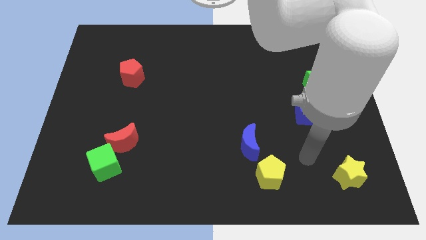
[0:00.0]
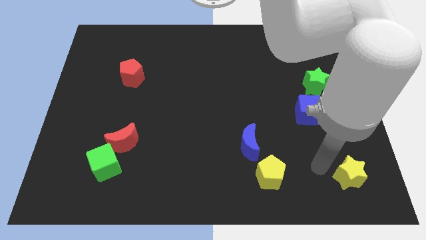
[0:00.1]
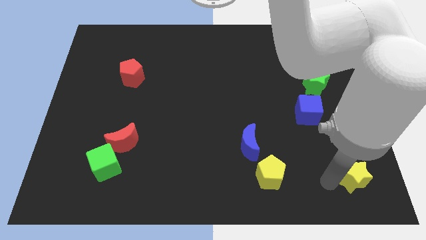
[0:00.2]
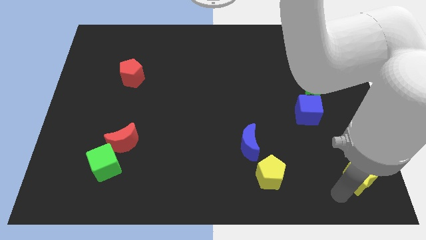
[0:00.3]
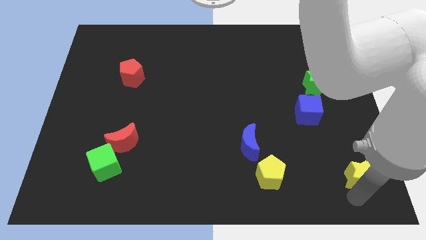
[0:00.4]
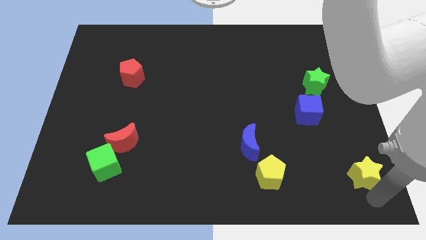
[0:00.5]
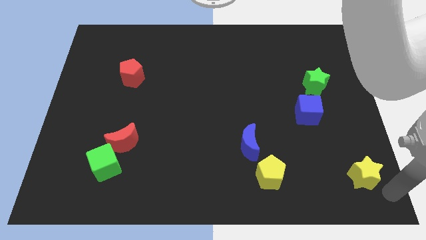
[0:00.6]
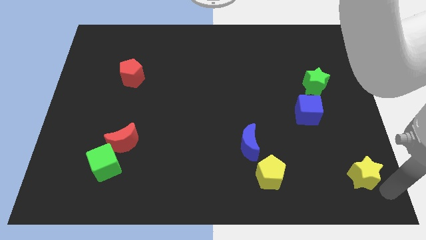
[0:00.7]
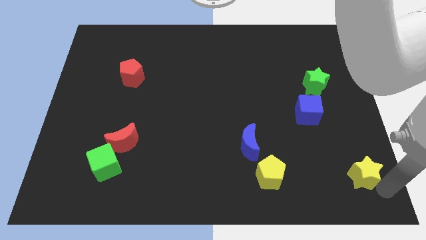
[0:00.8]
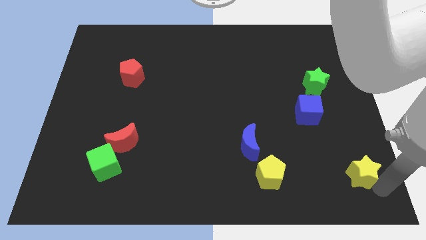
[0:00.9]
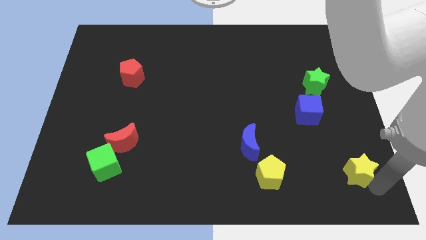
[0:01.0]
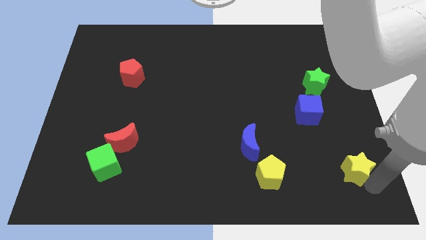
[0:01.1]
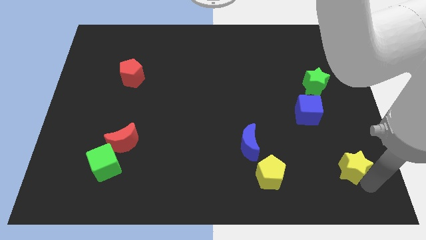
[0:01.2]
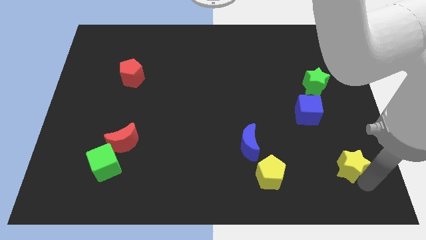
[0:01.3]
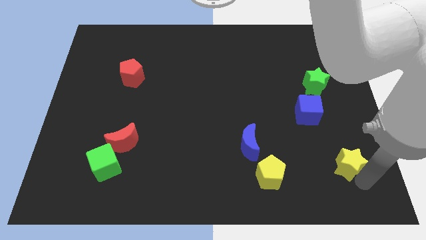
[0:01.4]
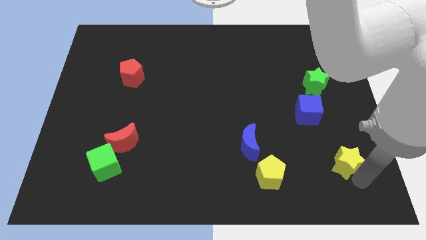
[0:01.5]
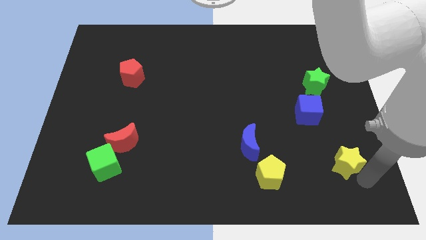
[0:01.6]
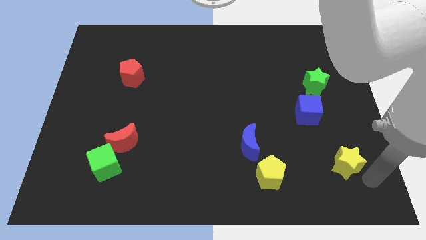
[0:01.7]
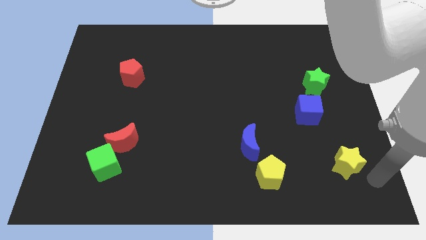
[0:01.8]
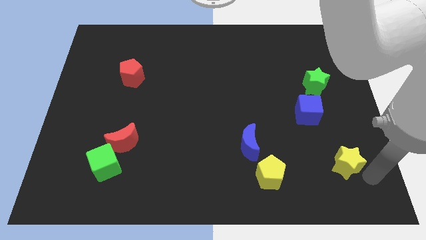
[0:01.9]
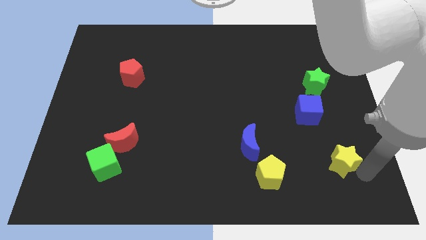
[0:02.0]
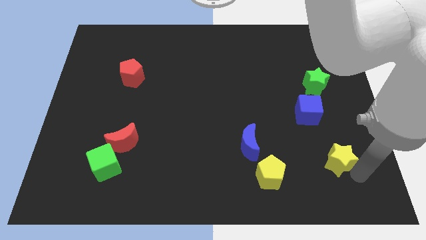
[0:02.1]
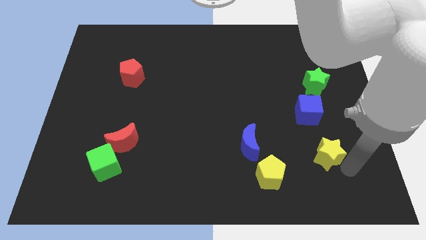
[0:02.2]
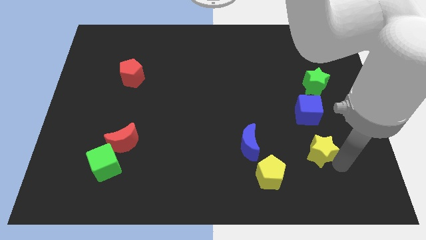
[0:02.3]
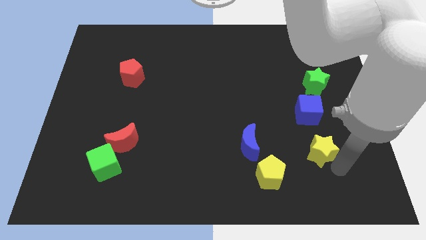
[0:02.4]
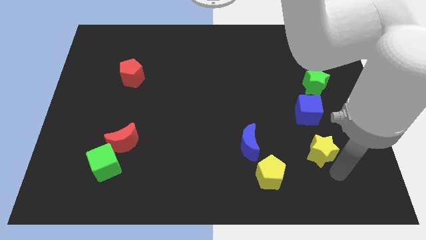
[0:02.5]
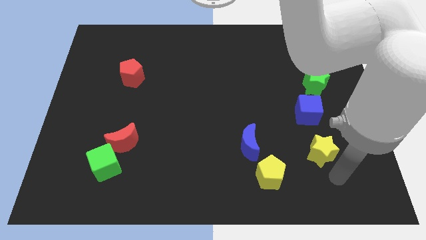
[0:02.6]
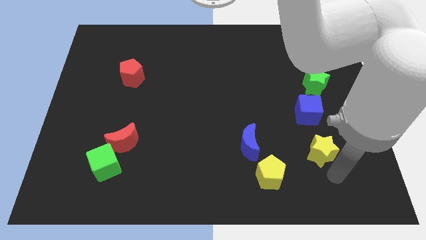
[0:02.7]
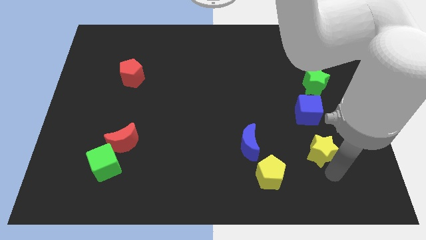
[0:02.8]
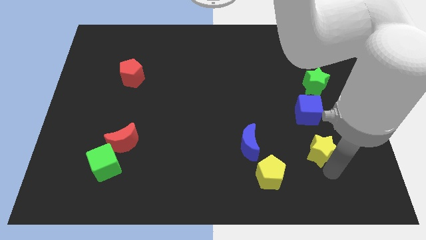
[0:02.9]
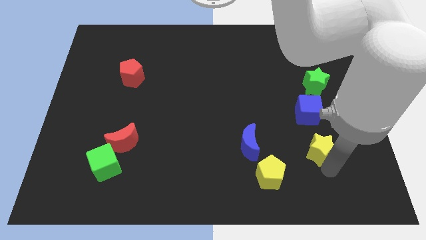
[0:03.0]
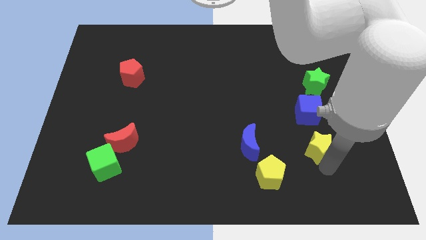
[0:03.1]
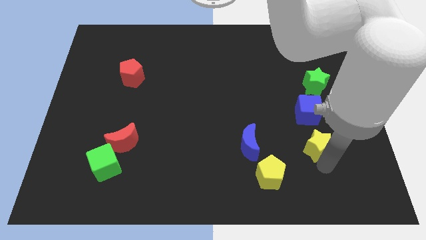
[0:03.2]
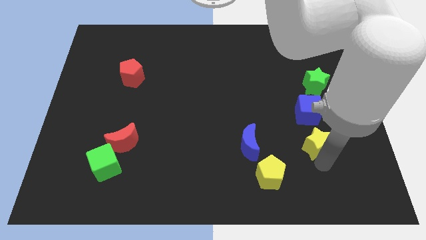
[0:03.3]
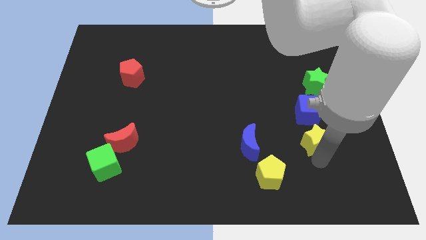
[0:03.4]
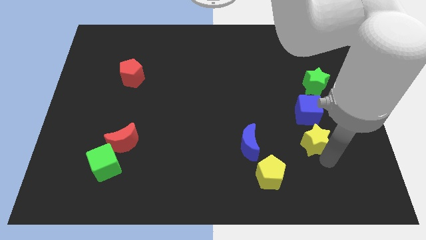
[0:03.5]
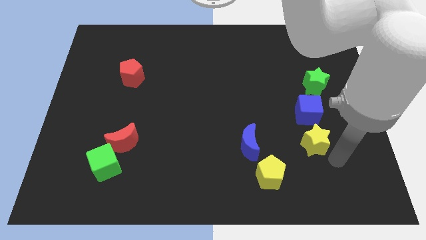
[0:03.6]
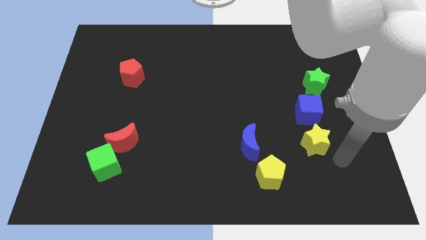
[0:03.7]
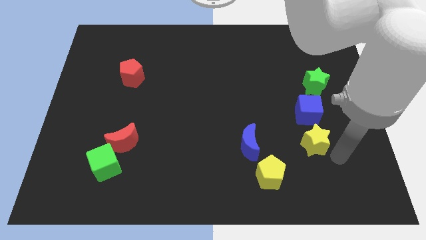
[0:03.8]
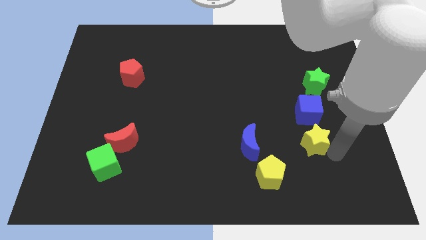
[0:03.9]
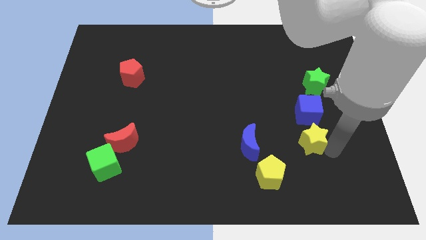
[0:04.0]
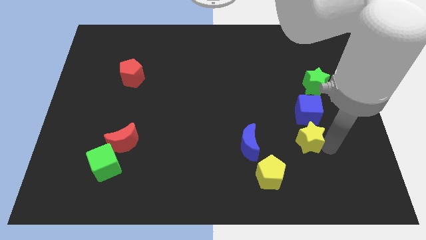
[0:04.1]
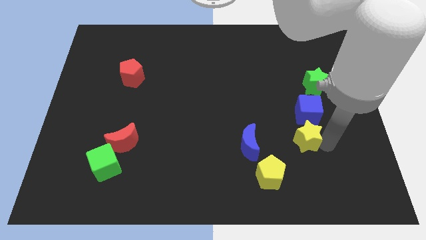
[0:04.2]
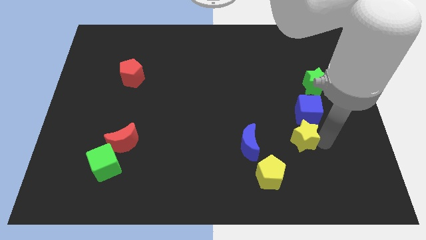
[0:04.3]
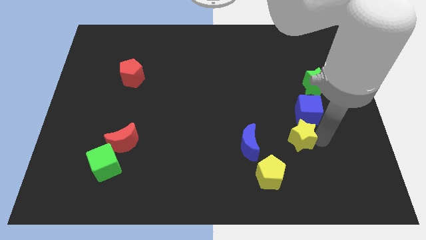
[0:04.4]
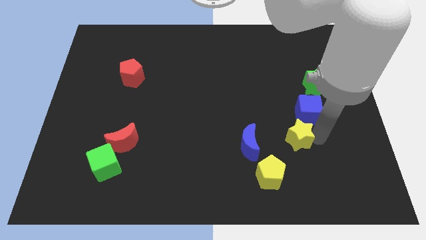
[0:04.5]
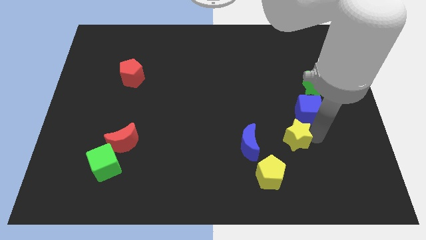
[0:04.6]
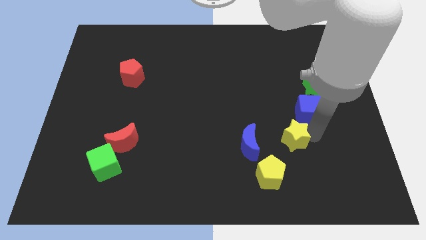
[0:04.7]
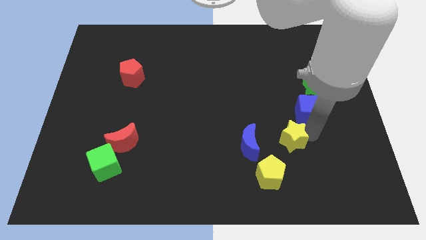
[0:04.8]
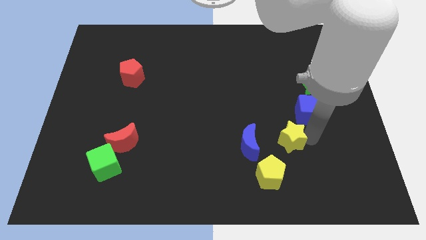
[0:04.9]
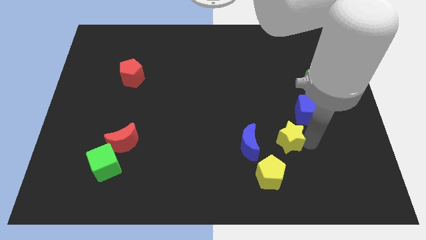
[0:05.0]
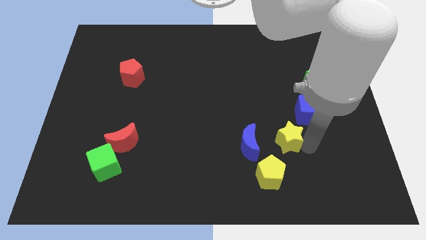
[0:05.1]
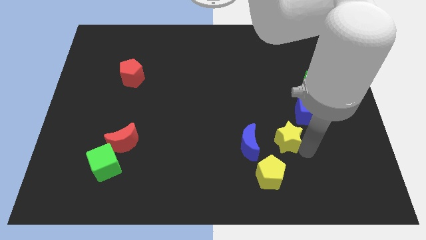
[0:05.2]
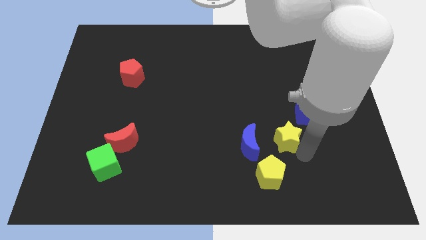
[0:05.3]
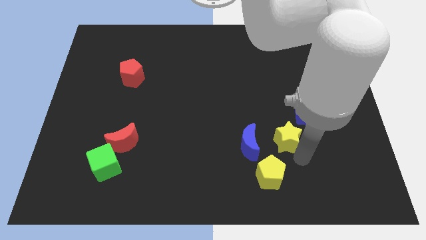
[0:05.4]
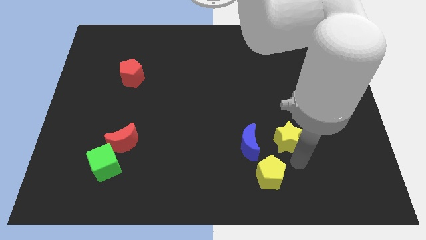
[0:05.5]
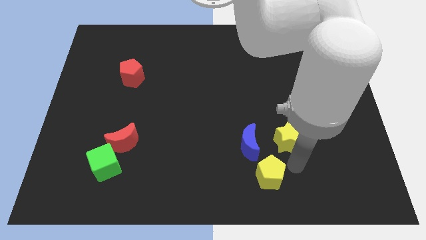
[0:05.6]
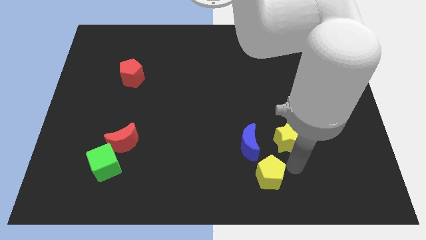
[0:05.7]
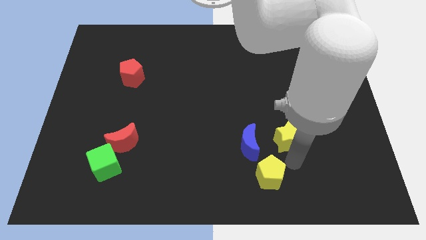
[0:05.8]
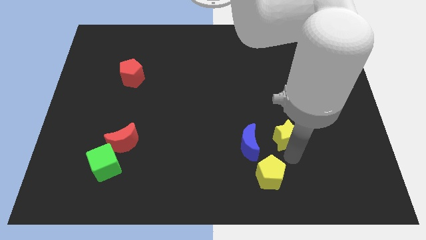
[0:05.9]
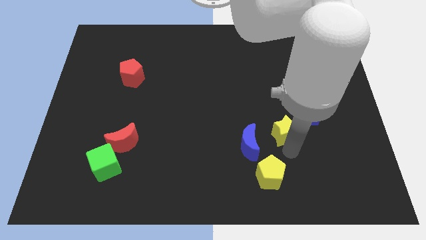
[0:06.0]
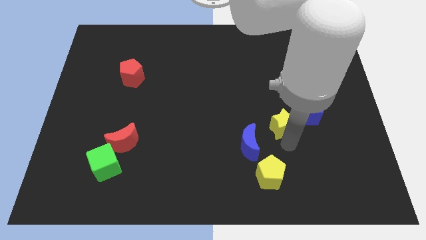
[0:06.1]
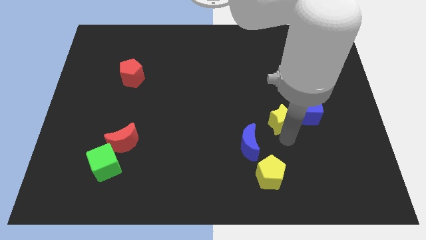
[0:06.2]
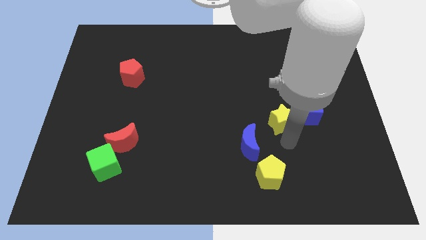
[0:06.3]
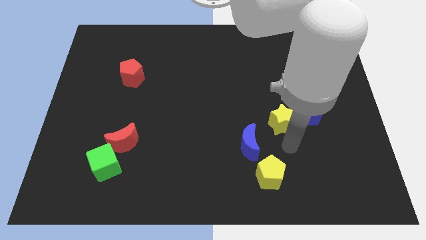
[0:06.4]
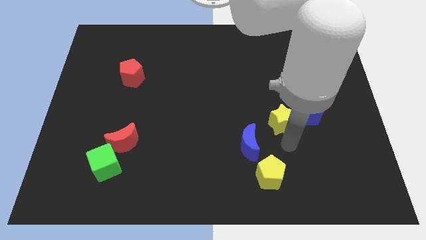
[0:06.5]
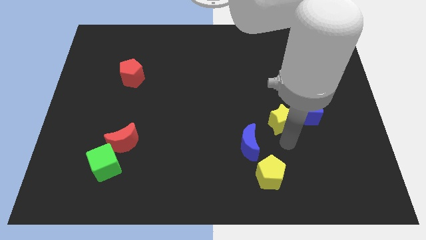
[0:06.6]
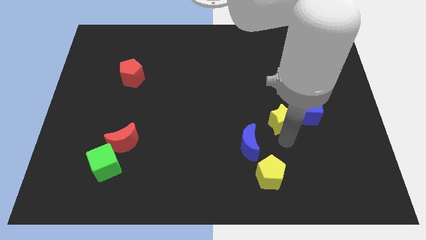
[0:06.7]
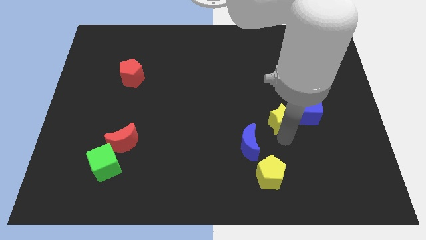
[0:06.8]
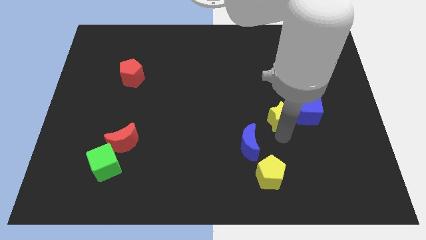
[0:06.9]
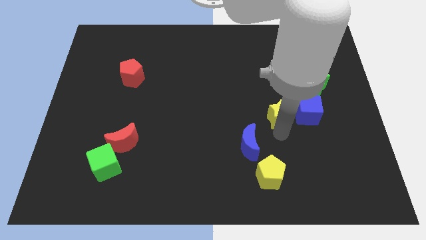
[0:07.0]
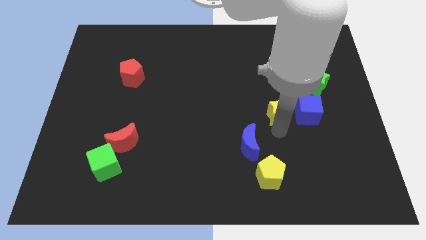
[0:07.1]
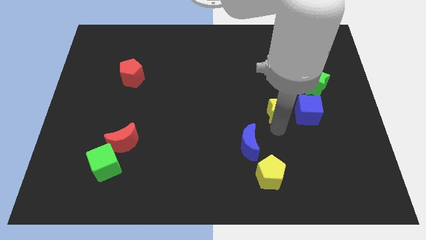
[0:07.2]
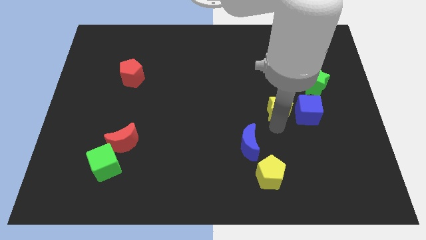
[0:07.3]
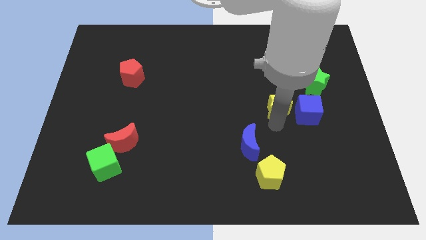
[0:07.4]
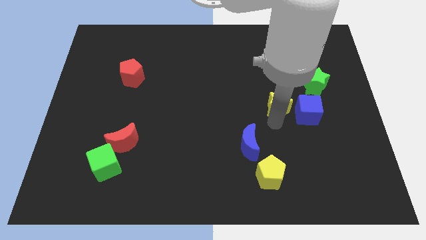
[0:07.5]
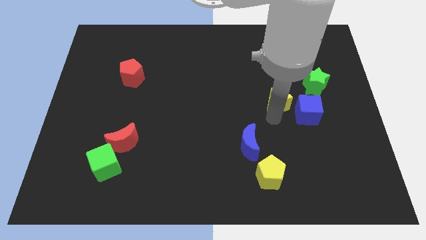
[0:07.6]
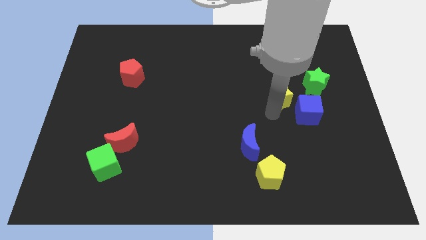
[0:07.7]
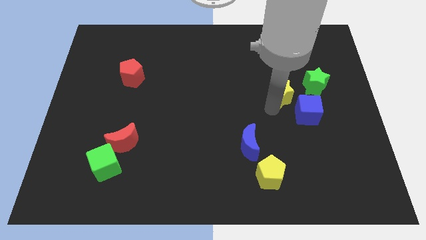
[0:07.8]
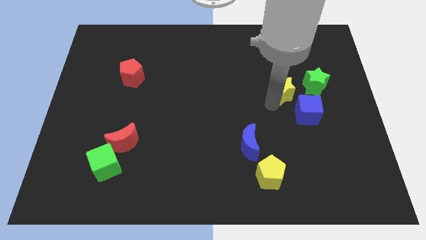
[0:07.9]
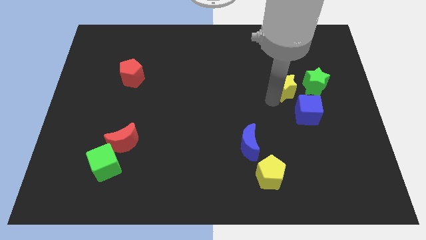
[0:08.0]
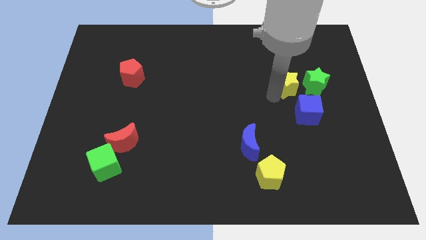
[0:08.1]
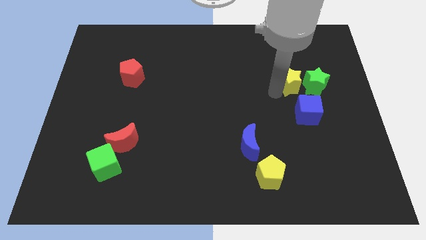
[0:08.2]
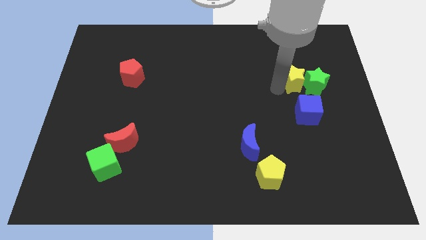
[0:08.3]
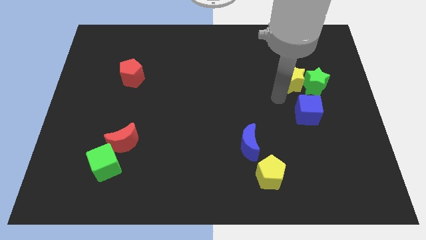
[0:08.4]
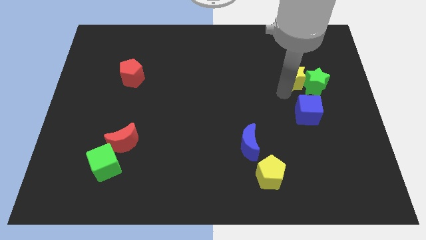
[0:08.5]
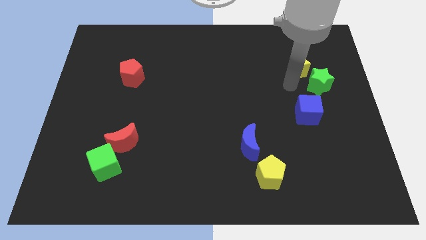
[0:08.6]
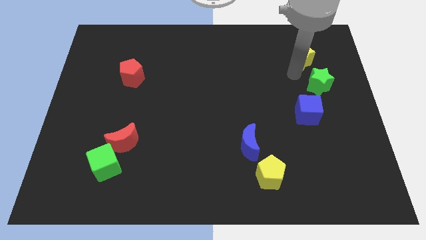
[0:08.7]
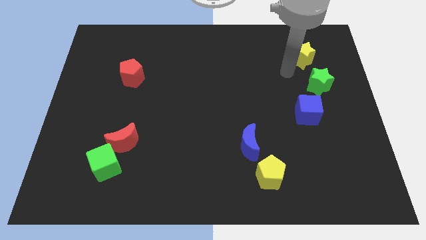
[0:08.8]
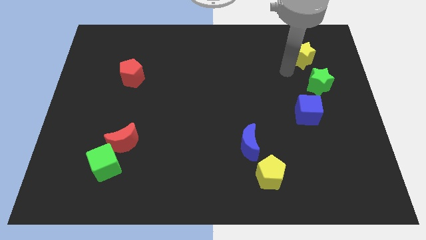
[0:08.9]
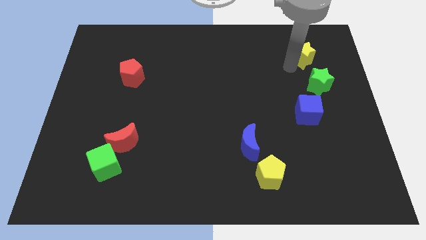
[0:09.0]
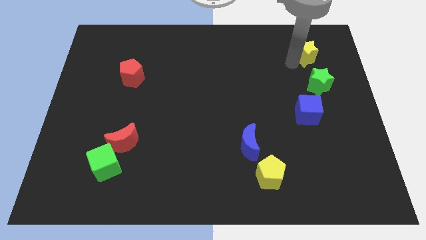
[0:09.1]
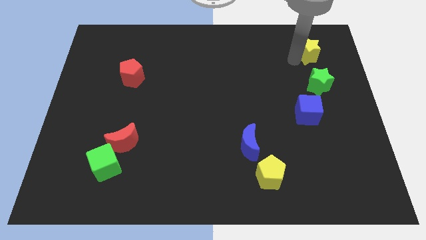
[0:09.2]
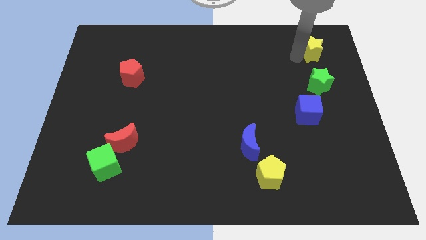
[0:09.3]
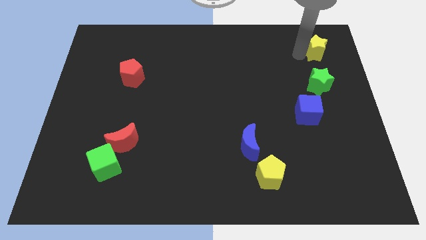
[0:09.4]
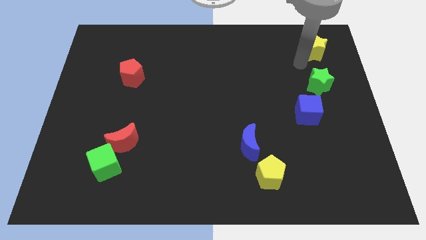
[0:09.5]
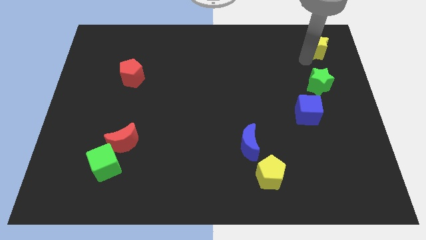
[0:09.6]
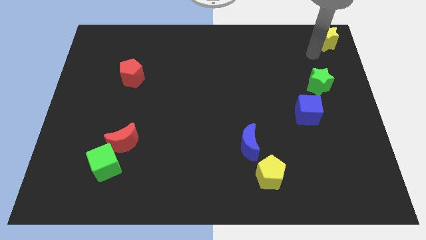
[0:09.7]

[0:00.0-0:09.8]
push the yellow star to the upper right corner
